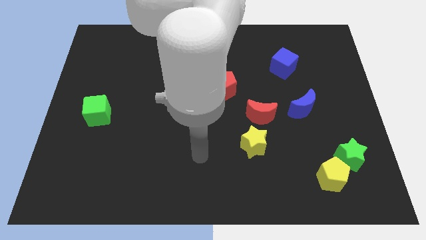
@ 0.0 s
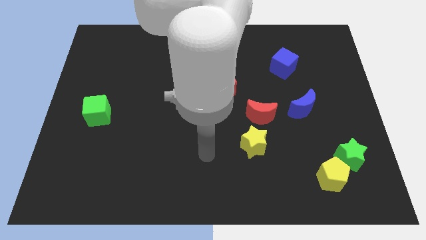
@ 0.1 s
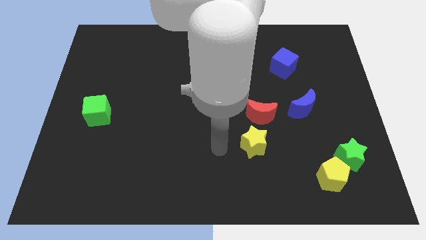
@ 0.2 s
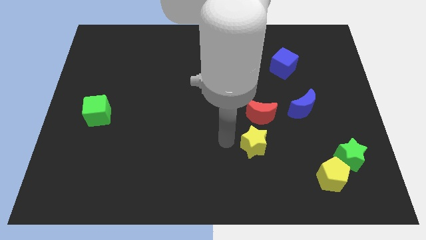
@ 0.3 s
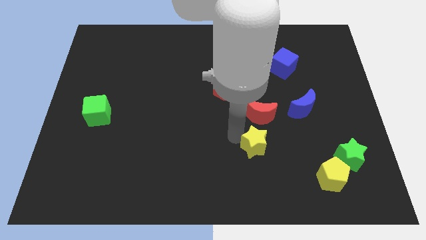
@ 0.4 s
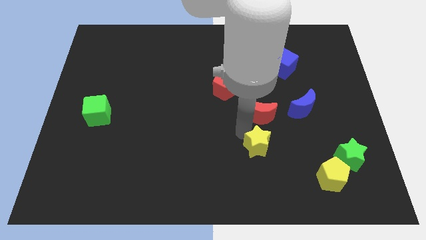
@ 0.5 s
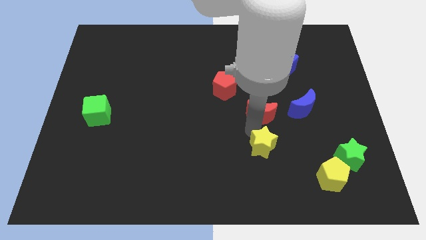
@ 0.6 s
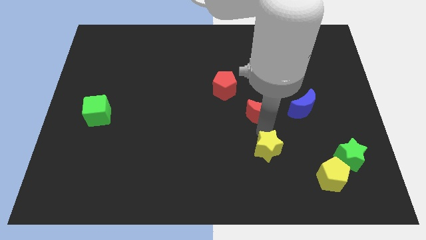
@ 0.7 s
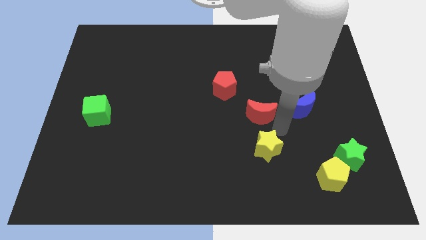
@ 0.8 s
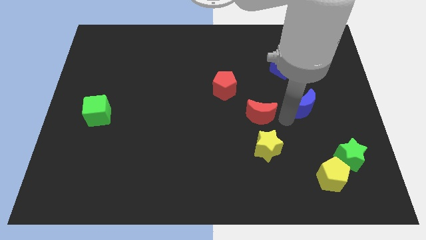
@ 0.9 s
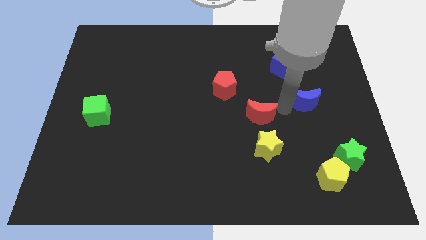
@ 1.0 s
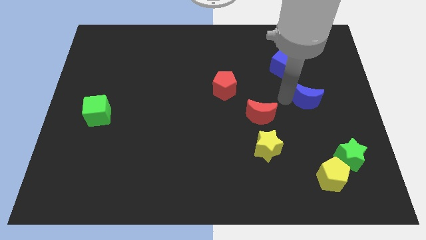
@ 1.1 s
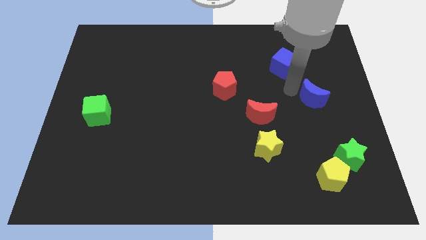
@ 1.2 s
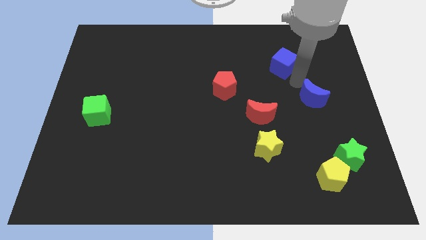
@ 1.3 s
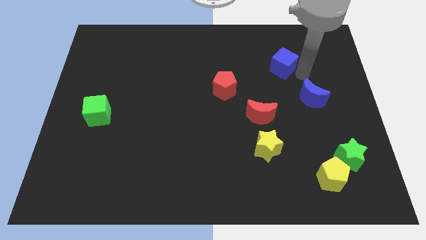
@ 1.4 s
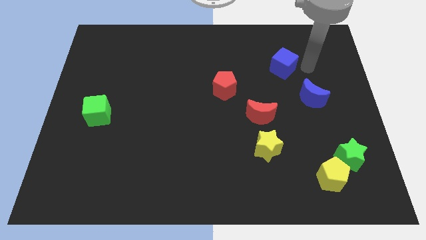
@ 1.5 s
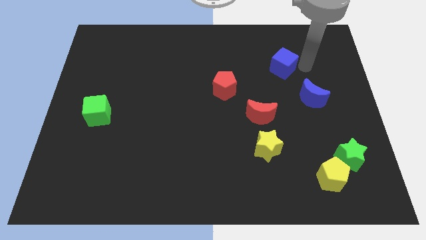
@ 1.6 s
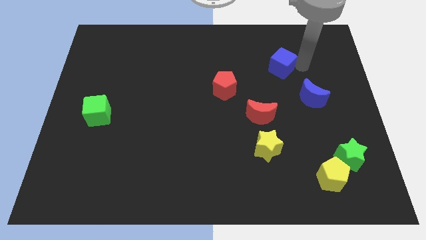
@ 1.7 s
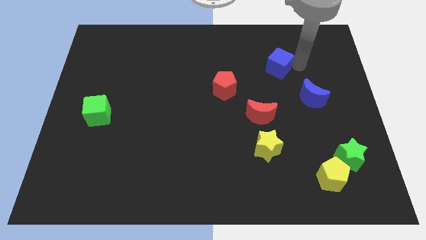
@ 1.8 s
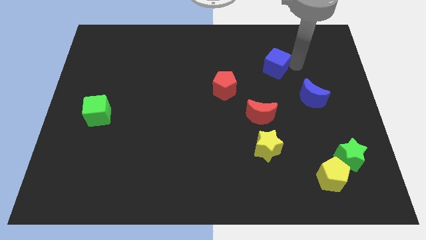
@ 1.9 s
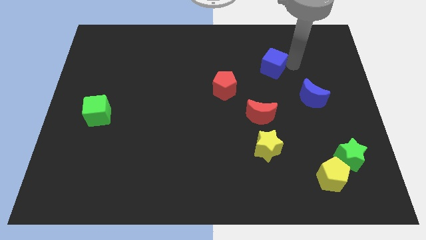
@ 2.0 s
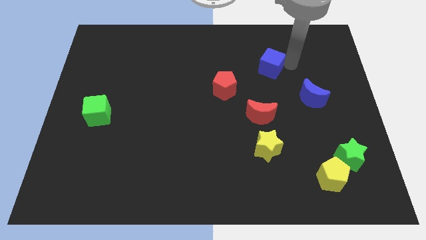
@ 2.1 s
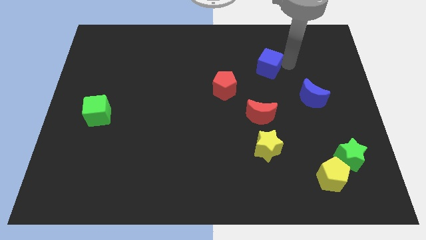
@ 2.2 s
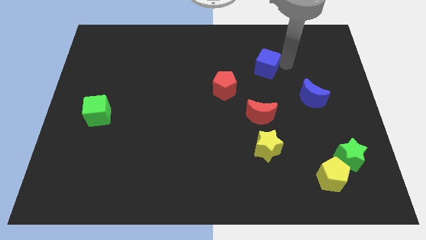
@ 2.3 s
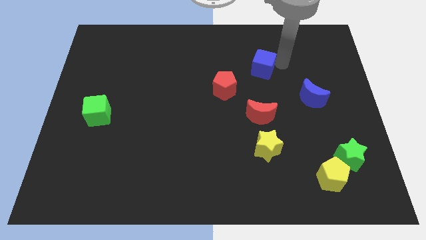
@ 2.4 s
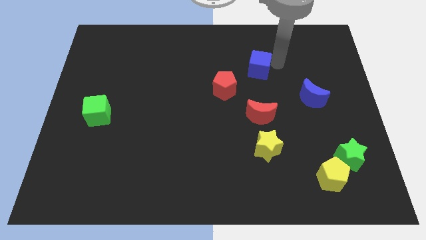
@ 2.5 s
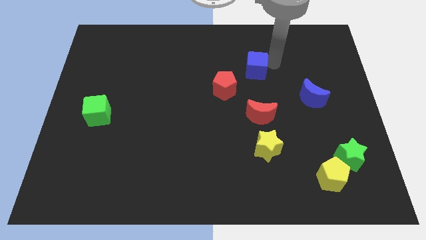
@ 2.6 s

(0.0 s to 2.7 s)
slightly push the blue cube to the left

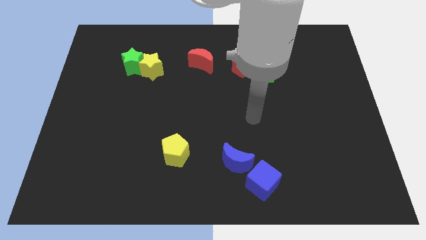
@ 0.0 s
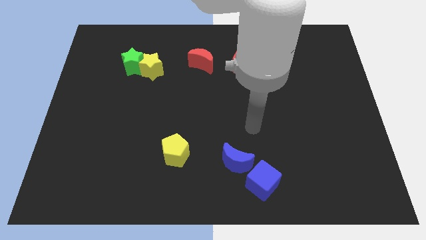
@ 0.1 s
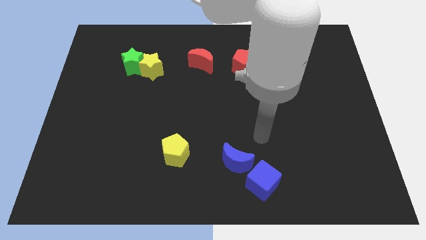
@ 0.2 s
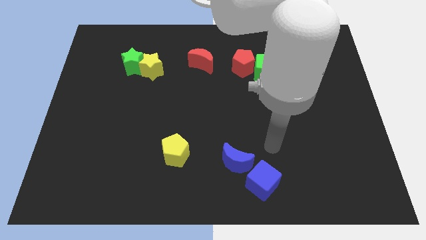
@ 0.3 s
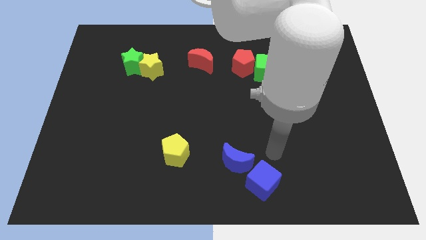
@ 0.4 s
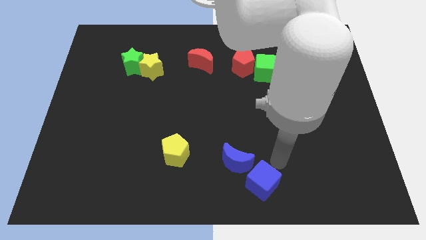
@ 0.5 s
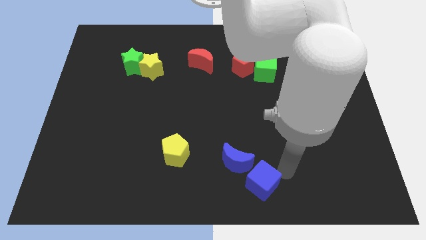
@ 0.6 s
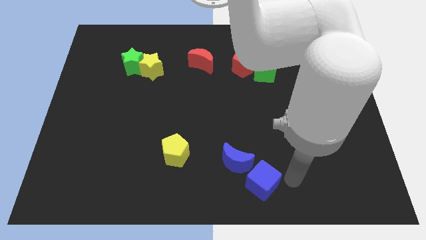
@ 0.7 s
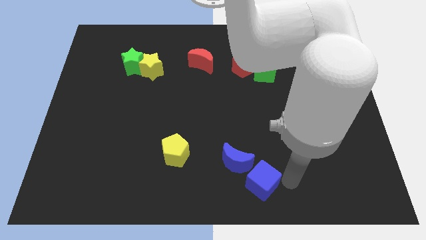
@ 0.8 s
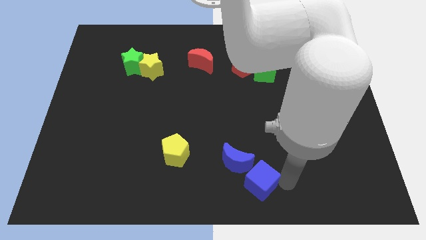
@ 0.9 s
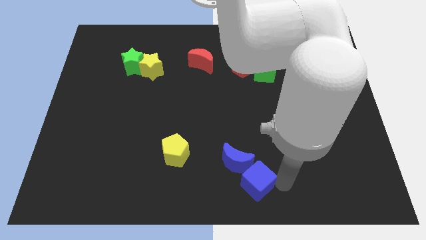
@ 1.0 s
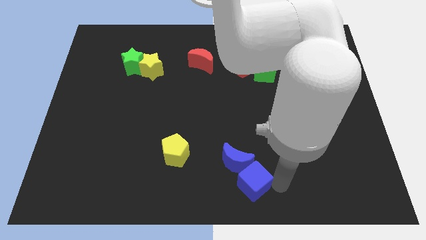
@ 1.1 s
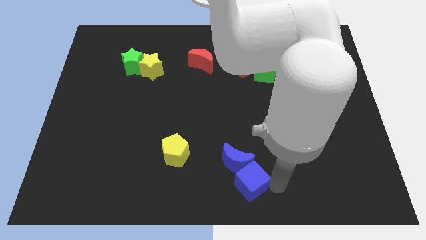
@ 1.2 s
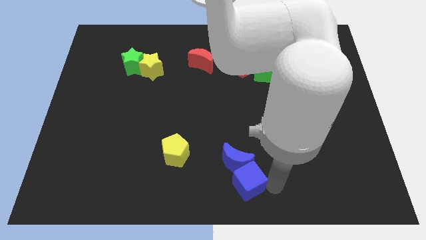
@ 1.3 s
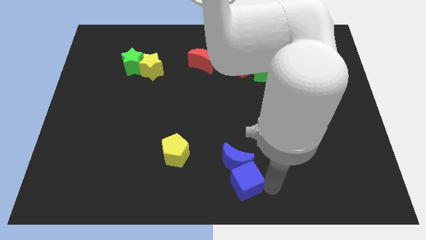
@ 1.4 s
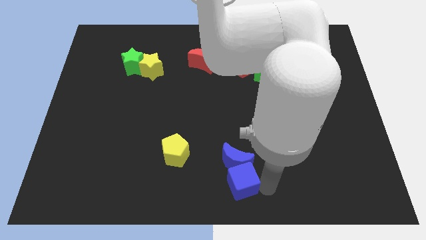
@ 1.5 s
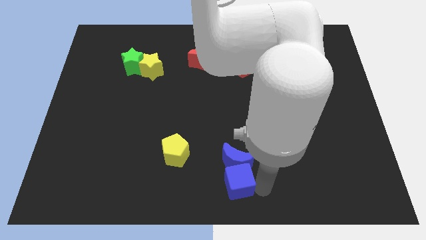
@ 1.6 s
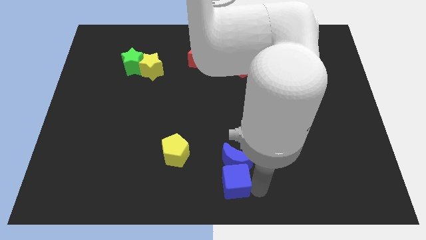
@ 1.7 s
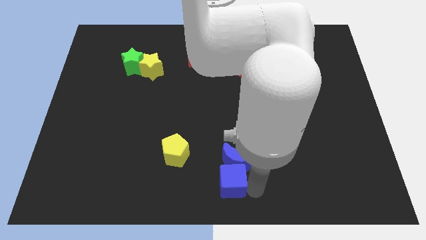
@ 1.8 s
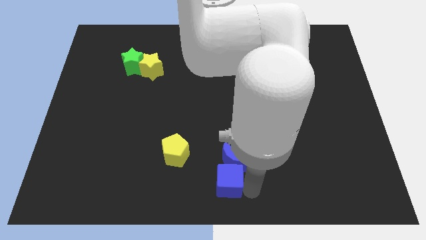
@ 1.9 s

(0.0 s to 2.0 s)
slightly slide the blue cube to the left

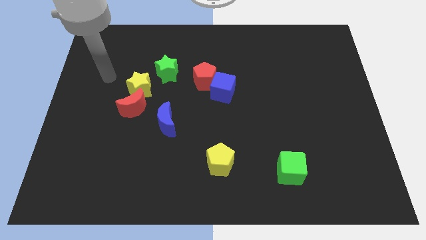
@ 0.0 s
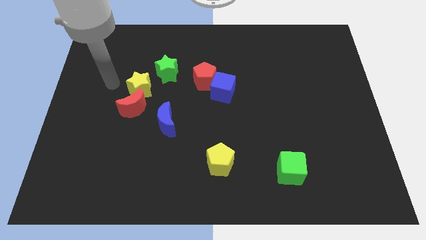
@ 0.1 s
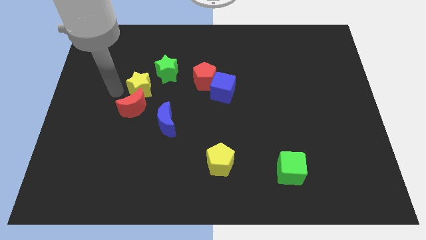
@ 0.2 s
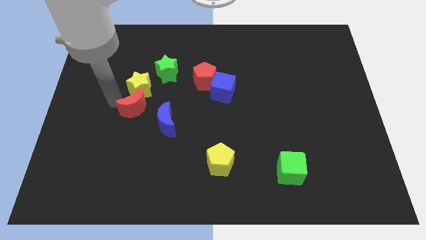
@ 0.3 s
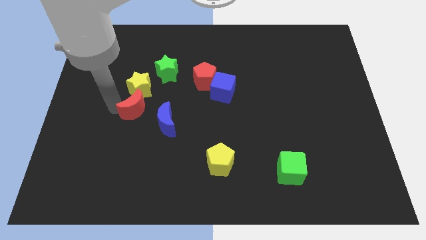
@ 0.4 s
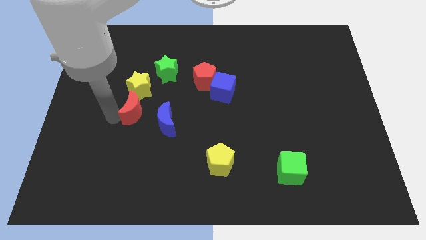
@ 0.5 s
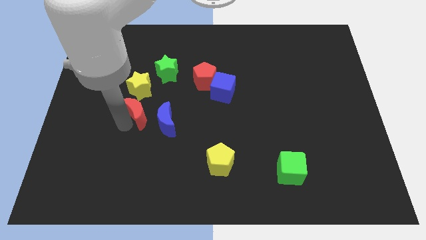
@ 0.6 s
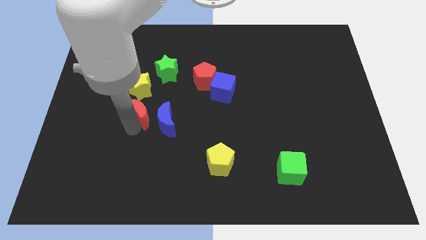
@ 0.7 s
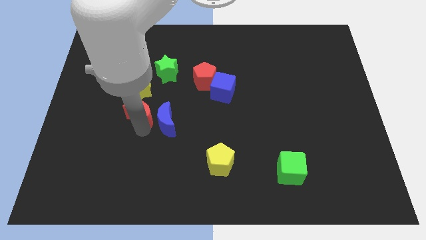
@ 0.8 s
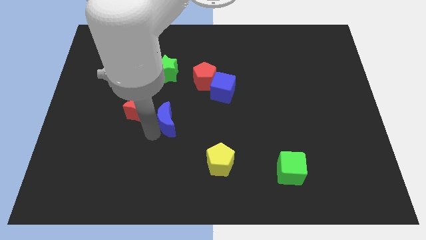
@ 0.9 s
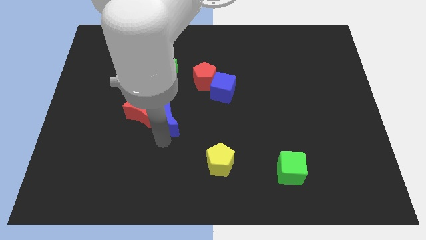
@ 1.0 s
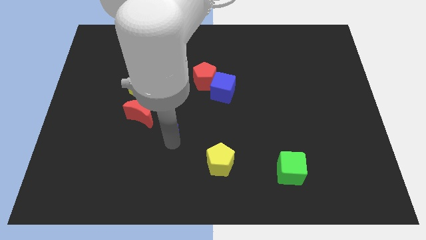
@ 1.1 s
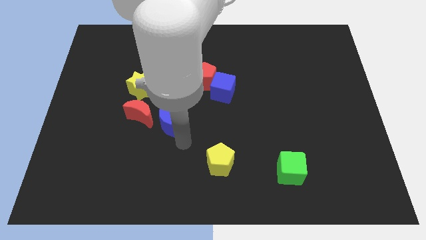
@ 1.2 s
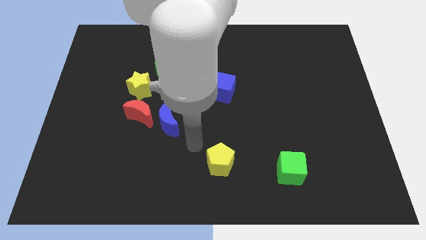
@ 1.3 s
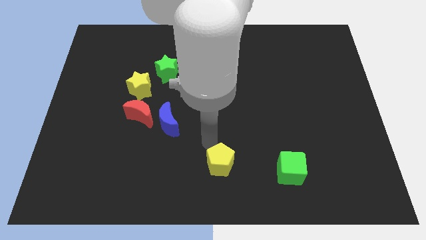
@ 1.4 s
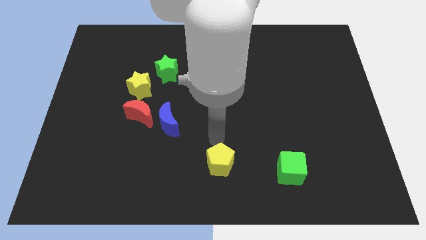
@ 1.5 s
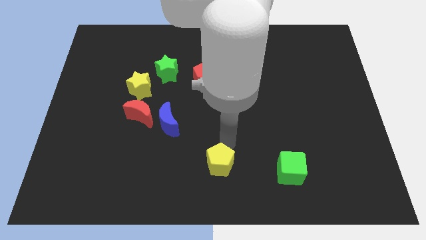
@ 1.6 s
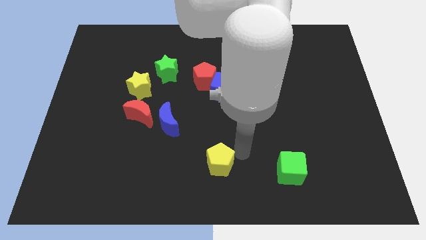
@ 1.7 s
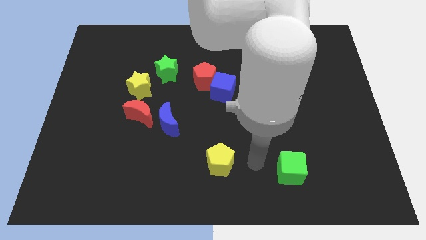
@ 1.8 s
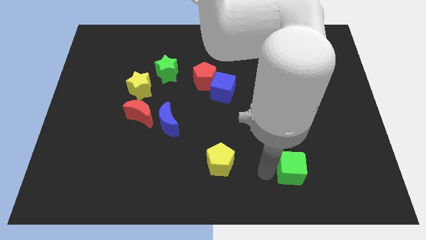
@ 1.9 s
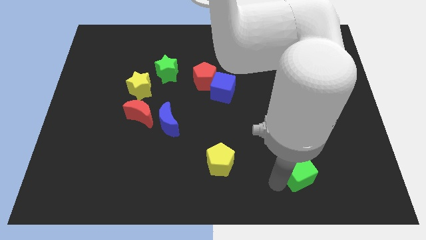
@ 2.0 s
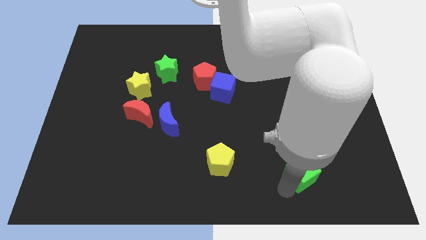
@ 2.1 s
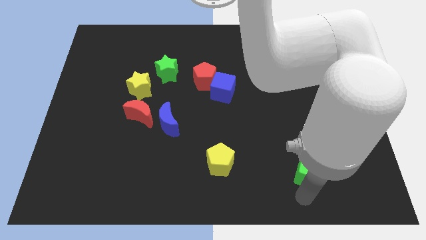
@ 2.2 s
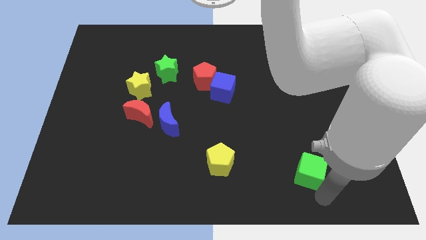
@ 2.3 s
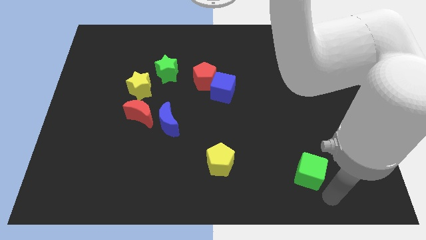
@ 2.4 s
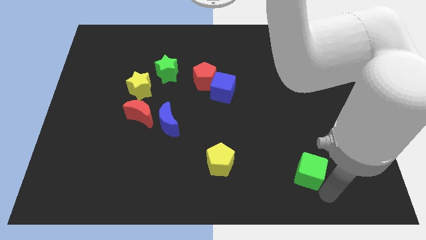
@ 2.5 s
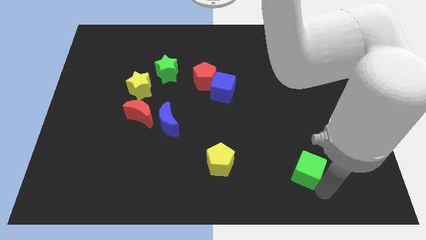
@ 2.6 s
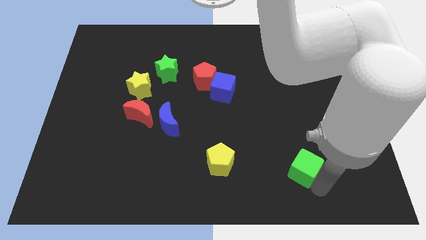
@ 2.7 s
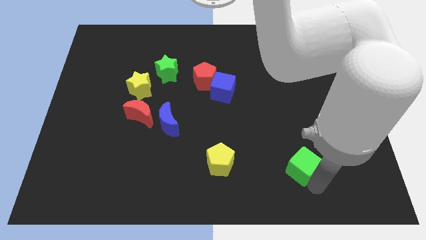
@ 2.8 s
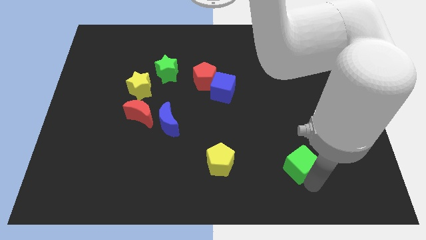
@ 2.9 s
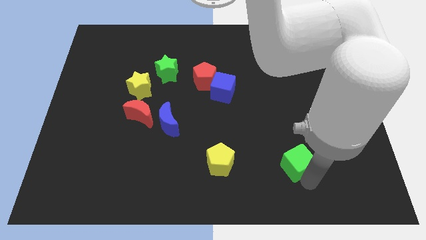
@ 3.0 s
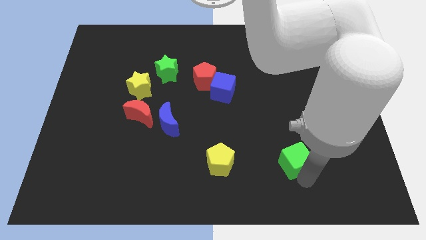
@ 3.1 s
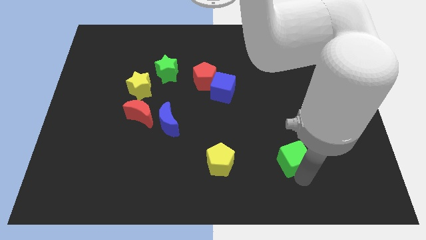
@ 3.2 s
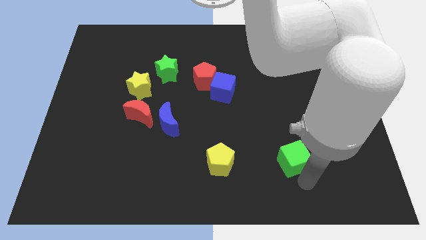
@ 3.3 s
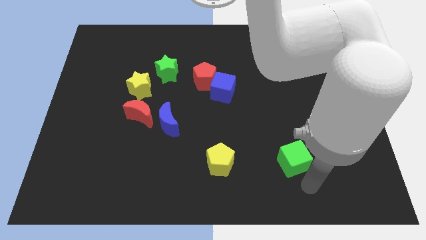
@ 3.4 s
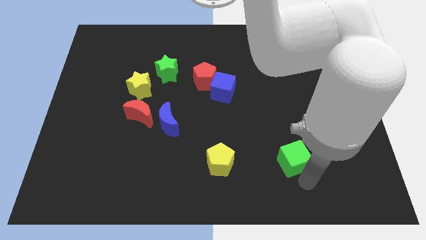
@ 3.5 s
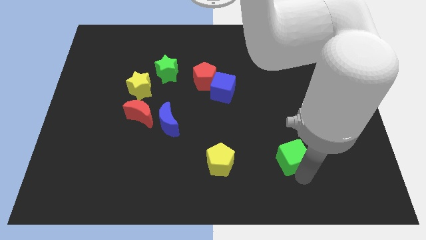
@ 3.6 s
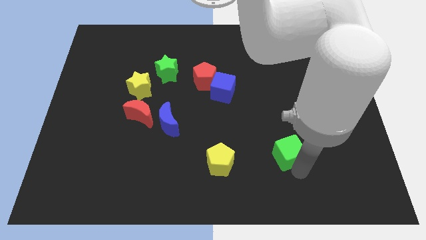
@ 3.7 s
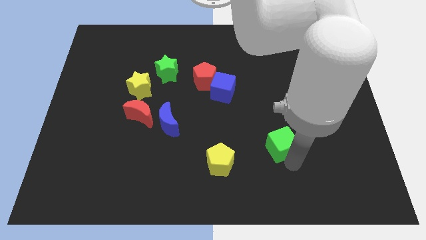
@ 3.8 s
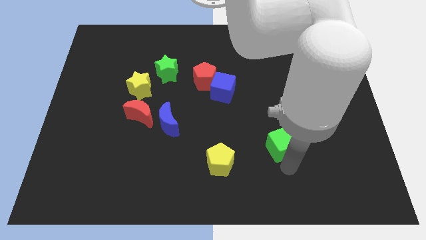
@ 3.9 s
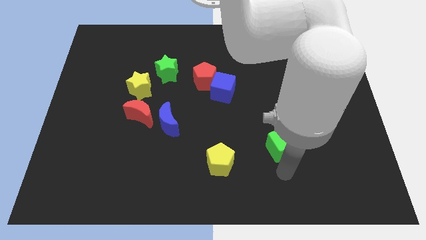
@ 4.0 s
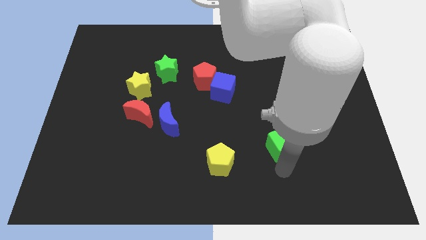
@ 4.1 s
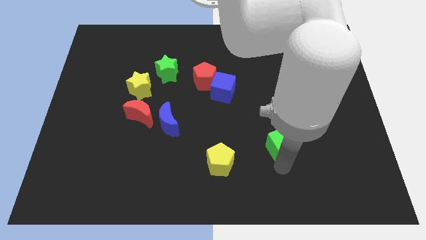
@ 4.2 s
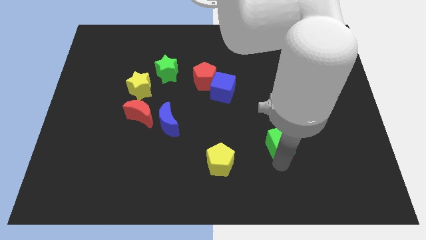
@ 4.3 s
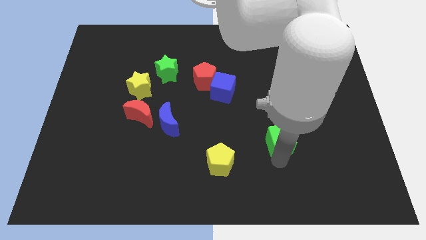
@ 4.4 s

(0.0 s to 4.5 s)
move the green cube a little bit up
